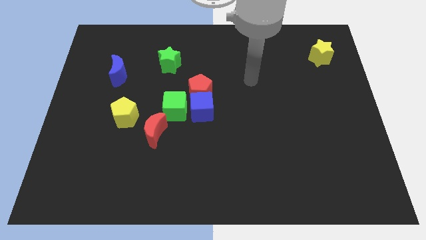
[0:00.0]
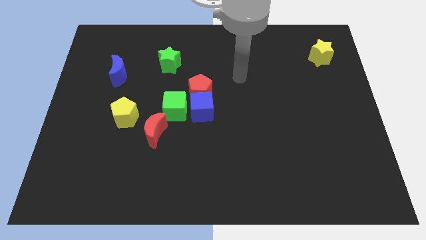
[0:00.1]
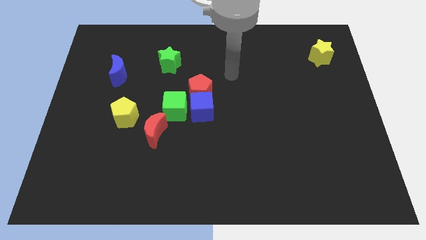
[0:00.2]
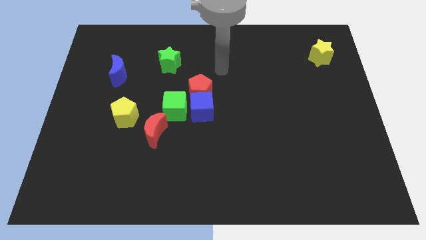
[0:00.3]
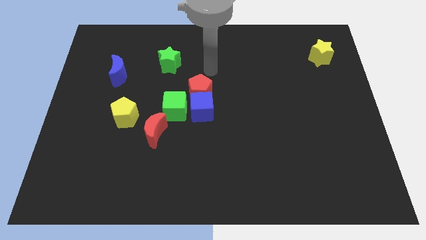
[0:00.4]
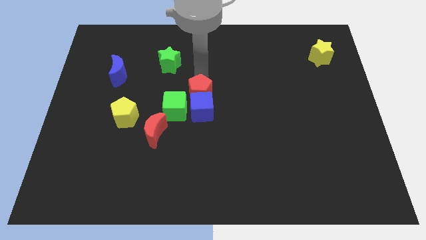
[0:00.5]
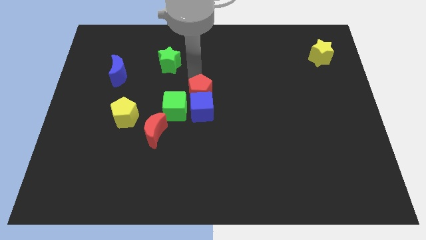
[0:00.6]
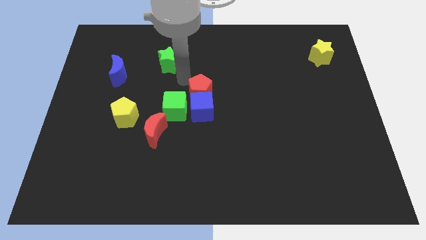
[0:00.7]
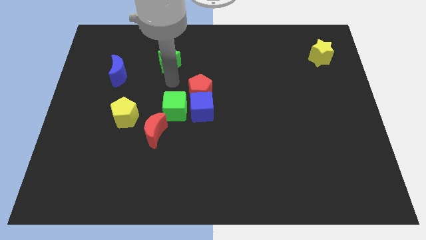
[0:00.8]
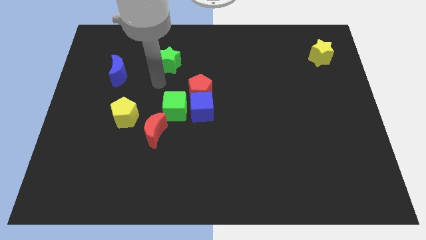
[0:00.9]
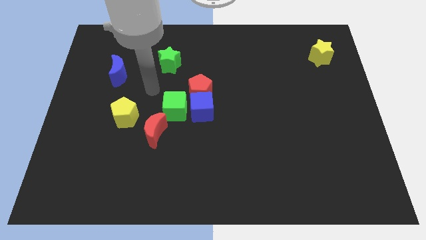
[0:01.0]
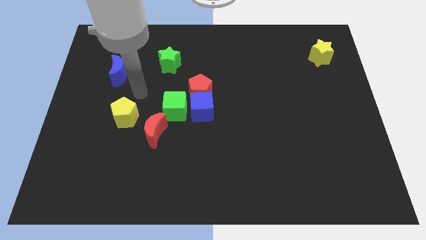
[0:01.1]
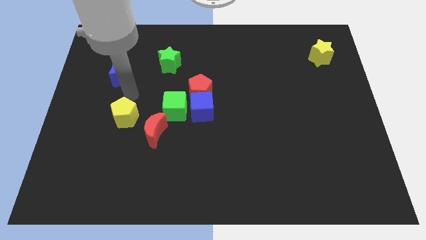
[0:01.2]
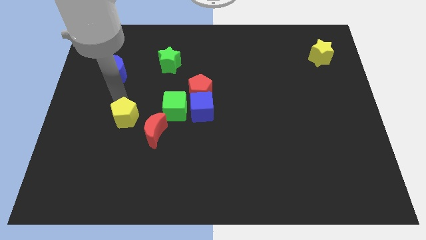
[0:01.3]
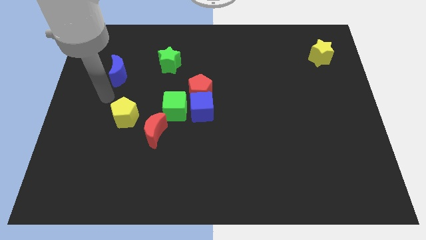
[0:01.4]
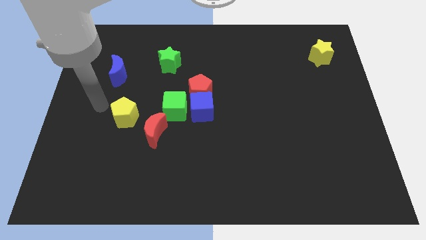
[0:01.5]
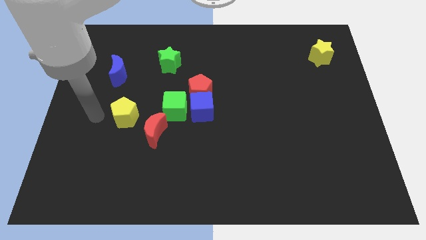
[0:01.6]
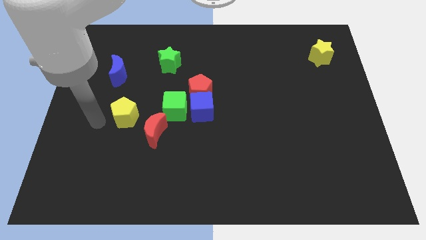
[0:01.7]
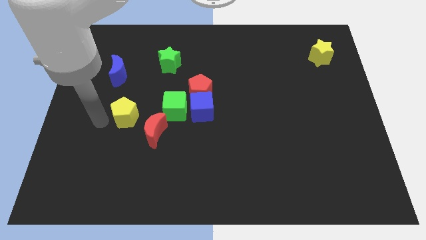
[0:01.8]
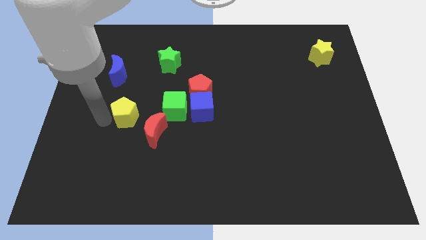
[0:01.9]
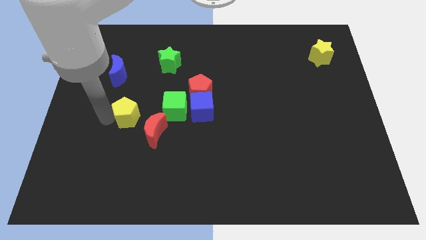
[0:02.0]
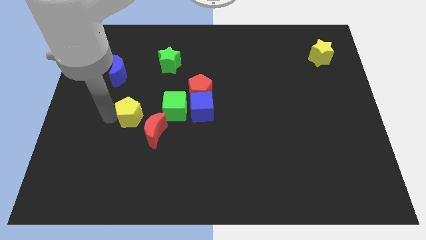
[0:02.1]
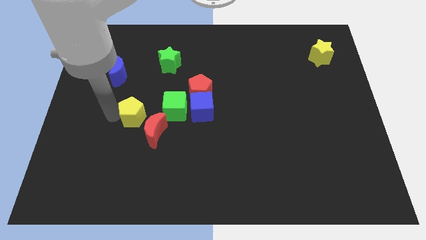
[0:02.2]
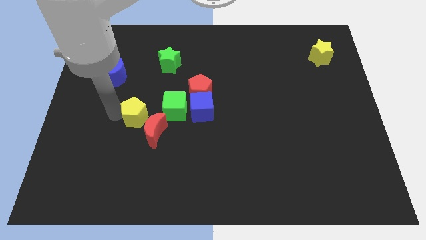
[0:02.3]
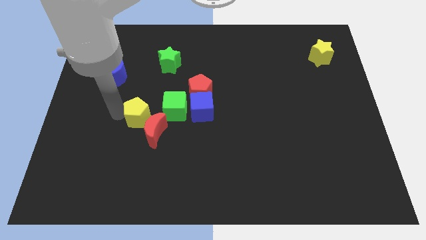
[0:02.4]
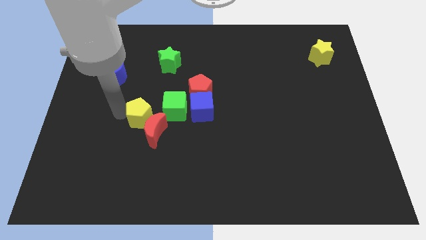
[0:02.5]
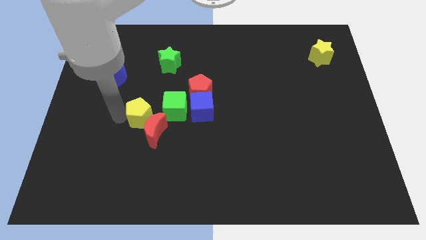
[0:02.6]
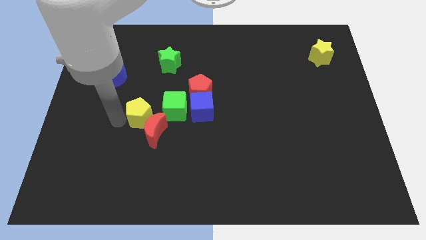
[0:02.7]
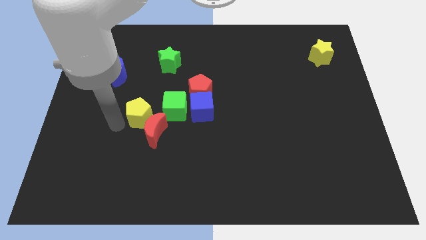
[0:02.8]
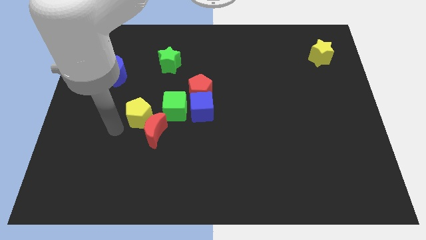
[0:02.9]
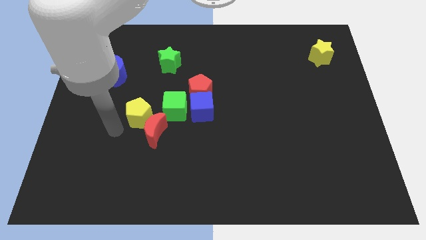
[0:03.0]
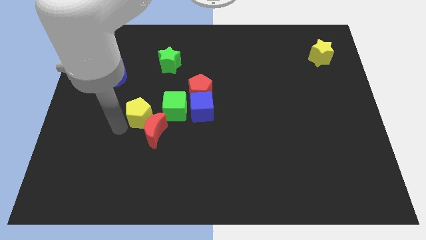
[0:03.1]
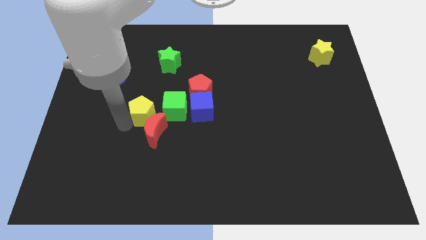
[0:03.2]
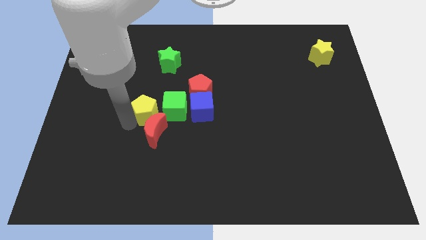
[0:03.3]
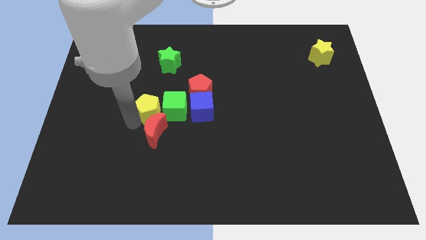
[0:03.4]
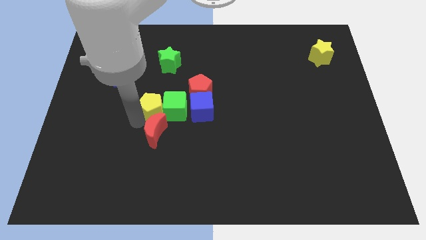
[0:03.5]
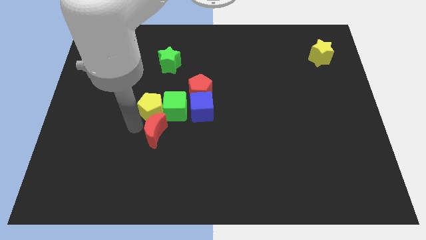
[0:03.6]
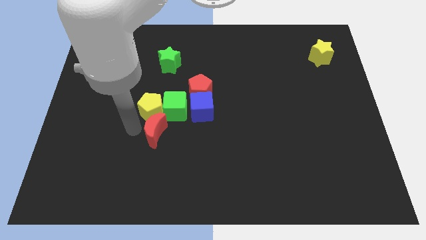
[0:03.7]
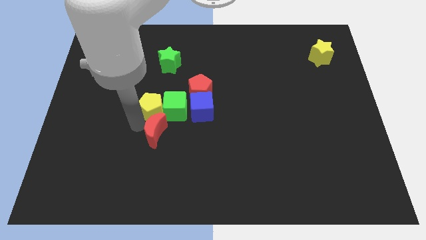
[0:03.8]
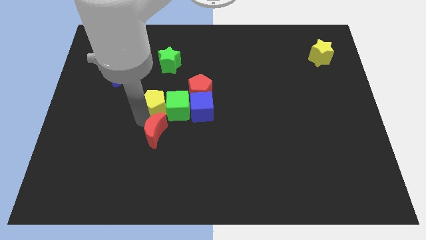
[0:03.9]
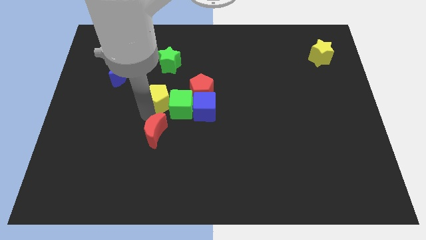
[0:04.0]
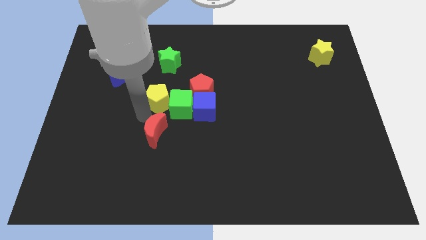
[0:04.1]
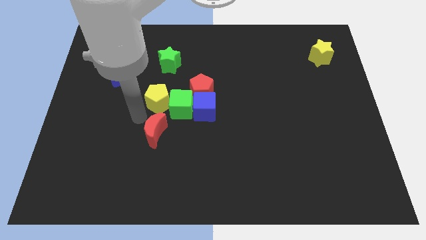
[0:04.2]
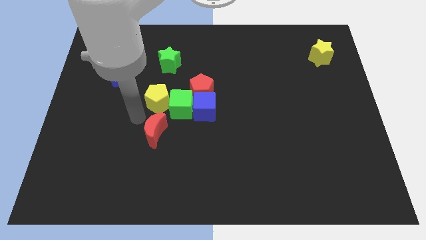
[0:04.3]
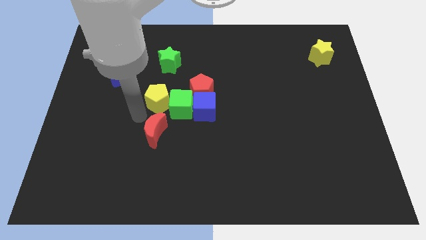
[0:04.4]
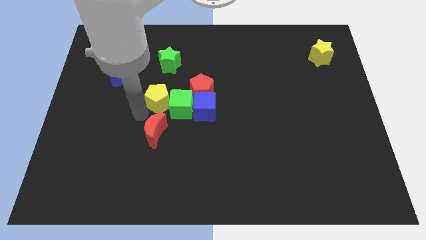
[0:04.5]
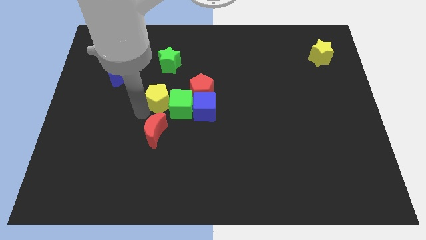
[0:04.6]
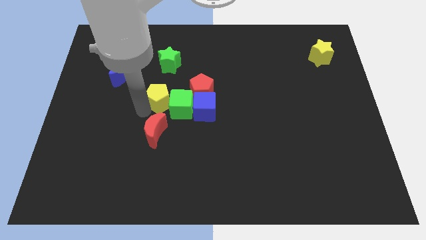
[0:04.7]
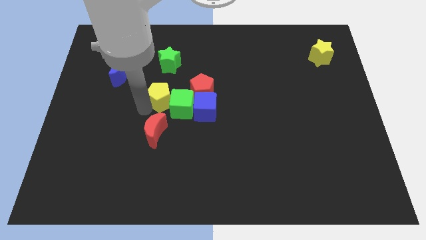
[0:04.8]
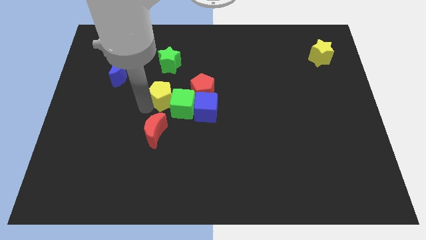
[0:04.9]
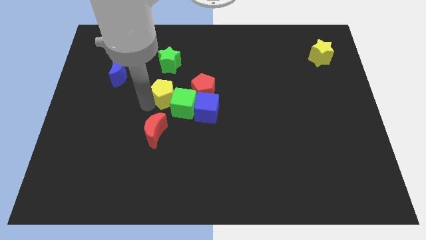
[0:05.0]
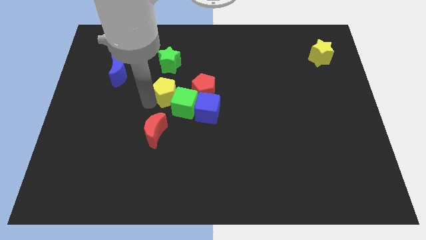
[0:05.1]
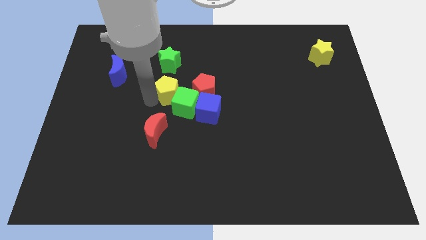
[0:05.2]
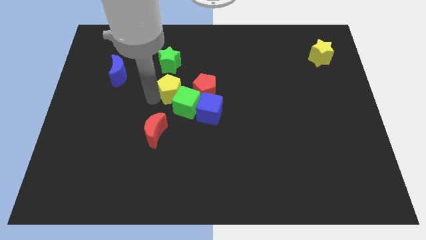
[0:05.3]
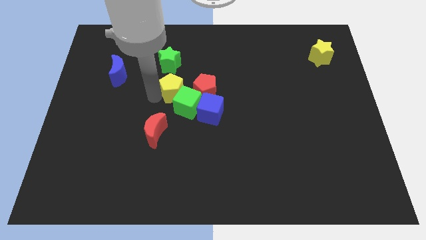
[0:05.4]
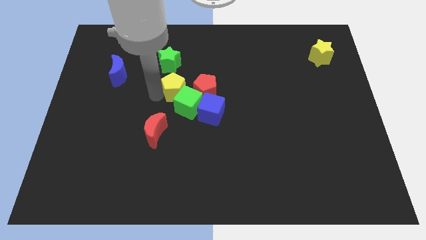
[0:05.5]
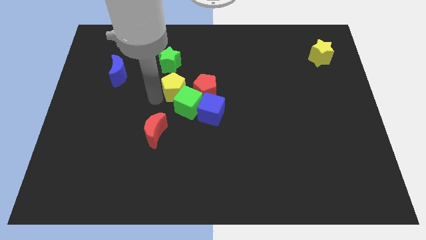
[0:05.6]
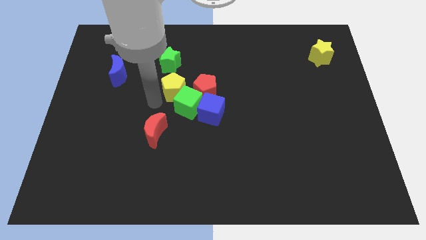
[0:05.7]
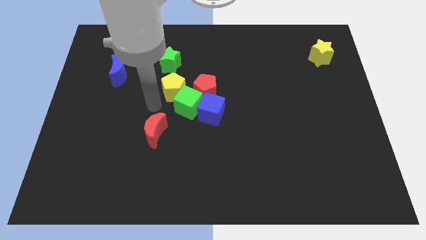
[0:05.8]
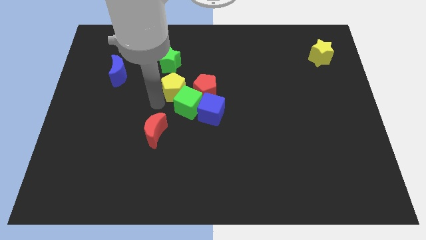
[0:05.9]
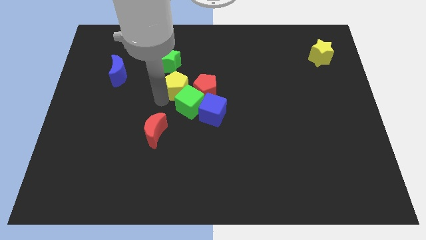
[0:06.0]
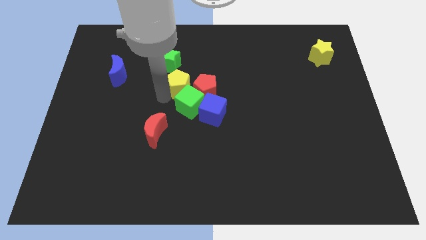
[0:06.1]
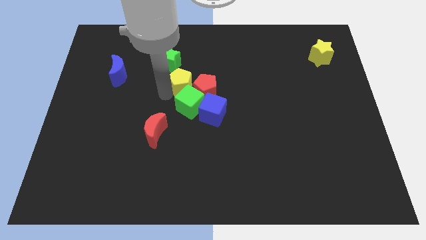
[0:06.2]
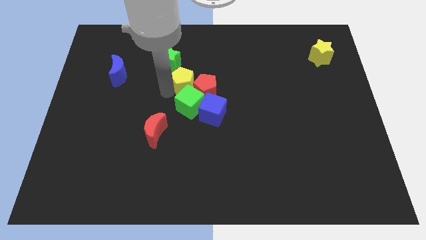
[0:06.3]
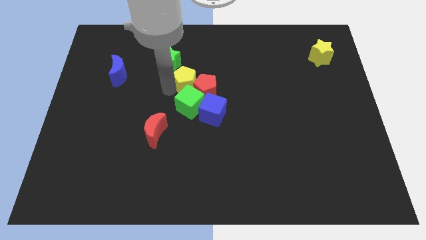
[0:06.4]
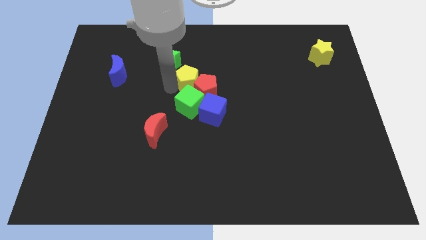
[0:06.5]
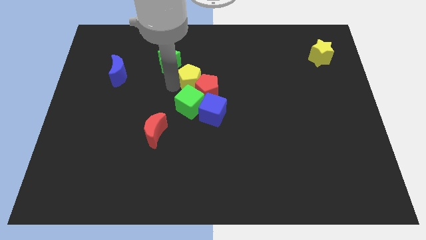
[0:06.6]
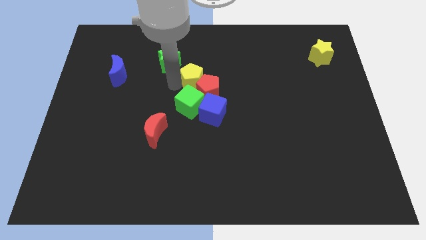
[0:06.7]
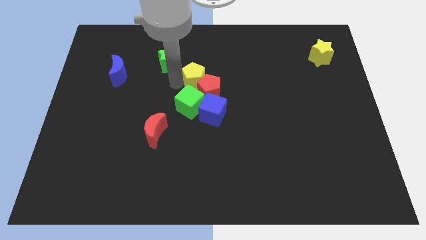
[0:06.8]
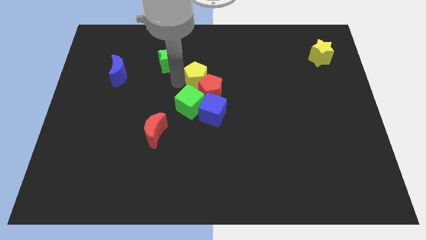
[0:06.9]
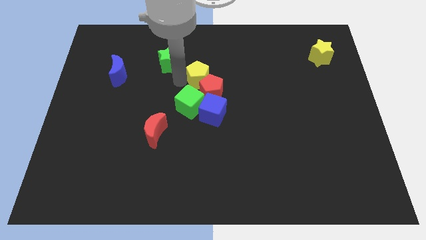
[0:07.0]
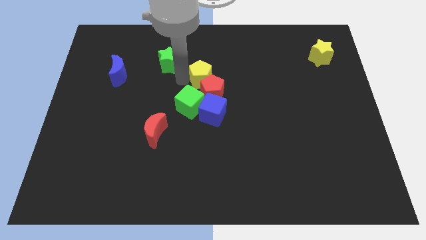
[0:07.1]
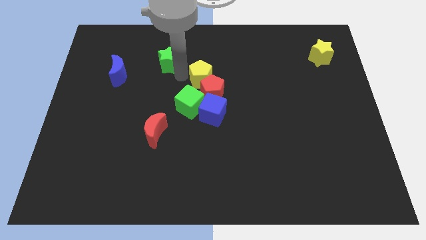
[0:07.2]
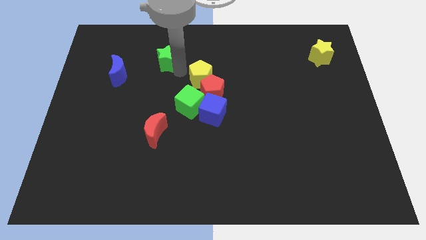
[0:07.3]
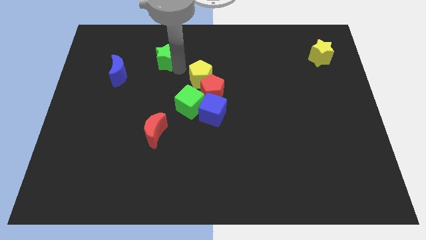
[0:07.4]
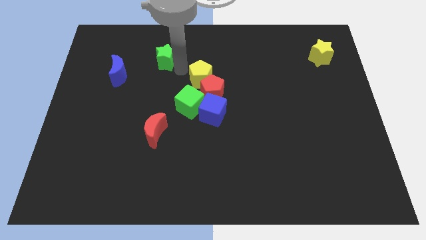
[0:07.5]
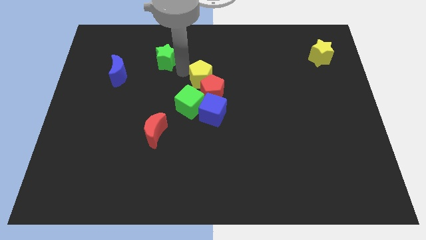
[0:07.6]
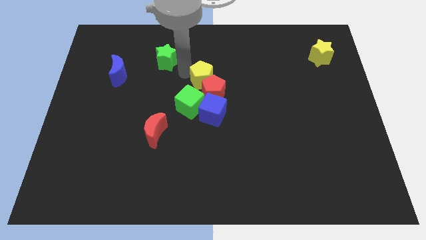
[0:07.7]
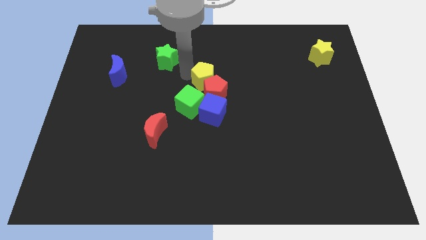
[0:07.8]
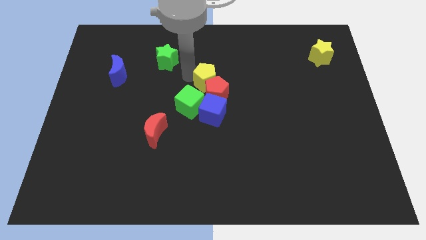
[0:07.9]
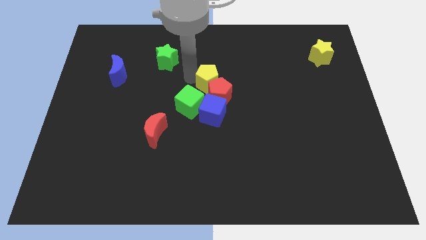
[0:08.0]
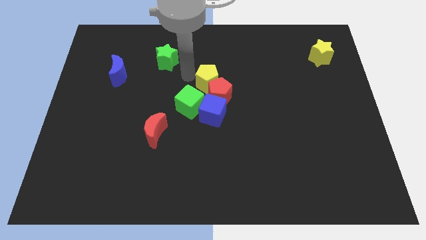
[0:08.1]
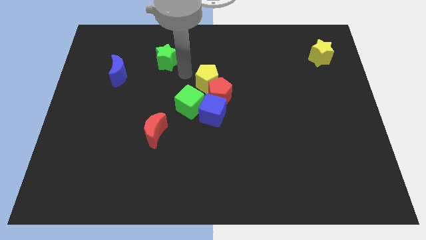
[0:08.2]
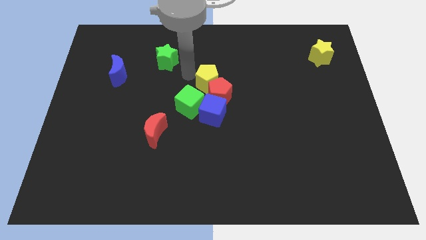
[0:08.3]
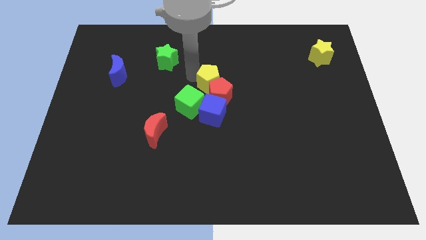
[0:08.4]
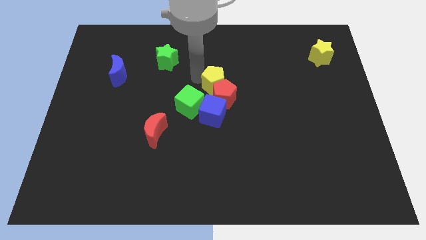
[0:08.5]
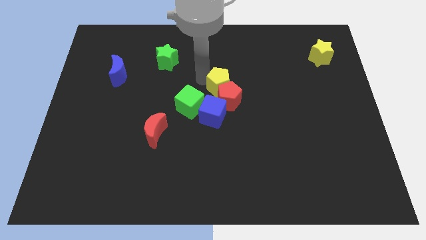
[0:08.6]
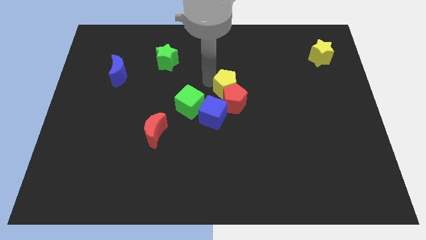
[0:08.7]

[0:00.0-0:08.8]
move the yellow pentagon to the right
